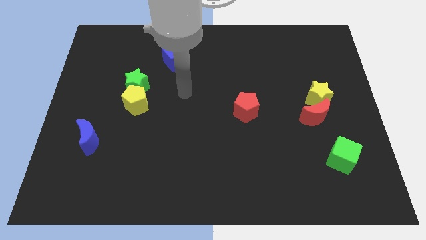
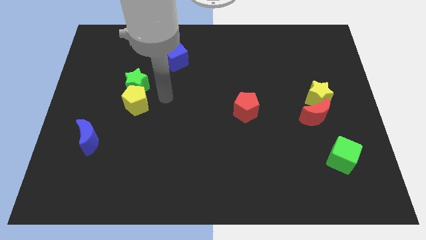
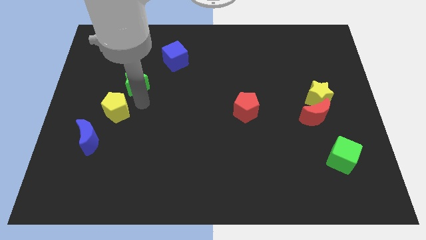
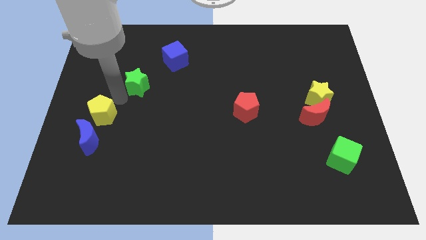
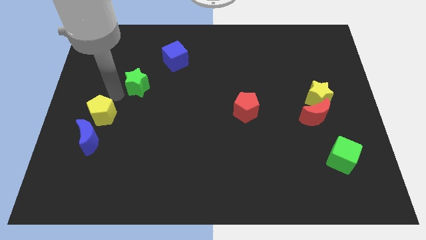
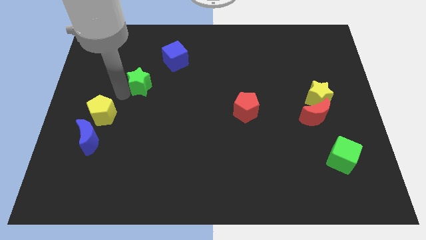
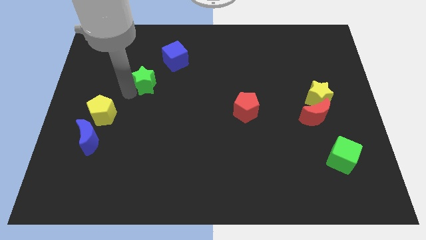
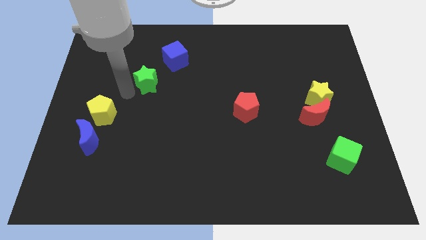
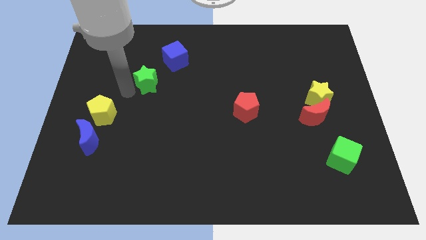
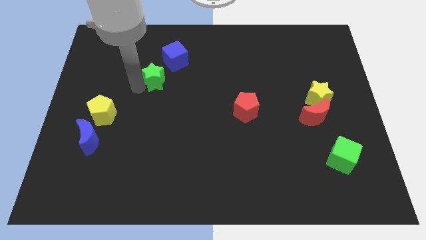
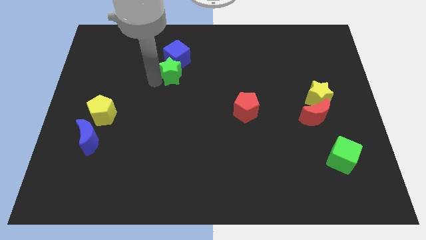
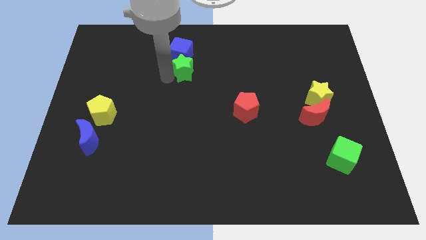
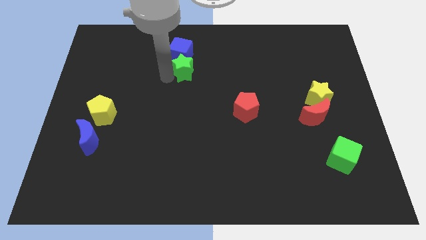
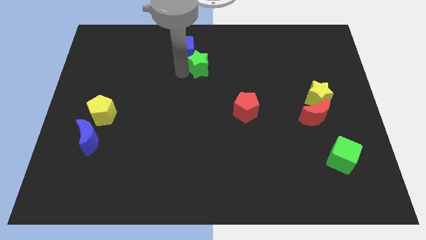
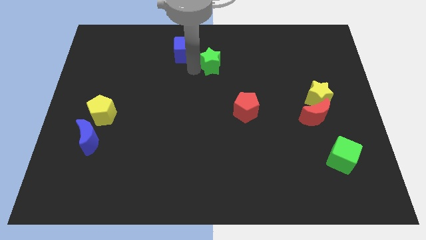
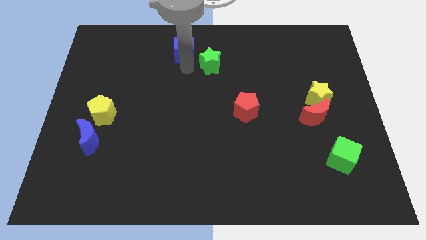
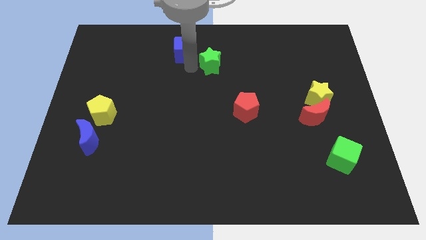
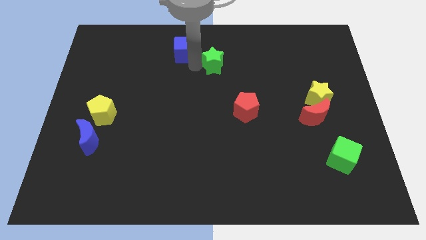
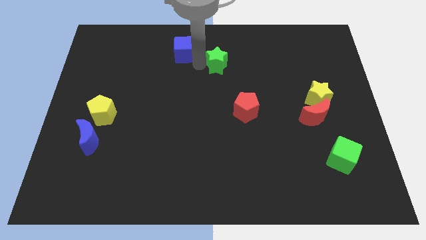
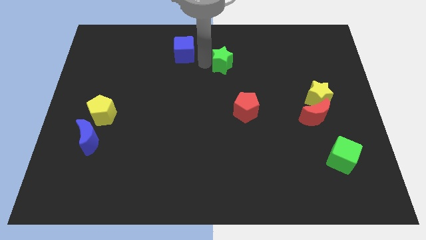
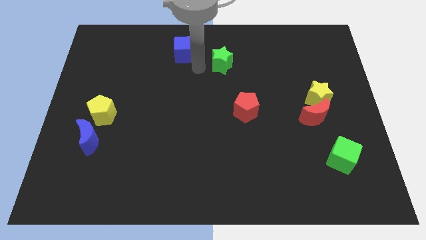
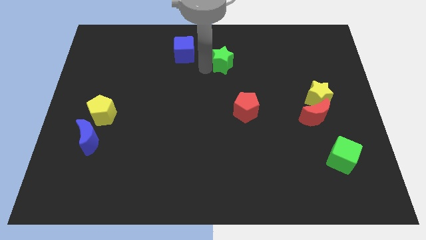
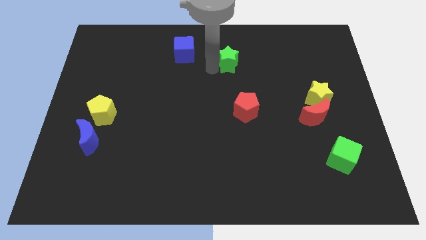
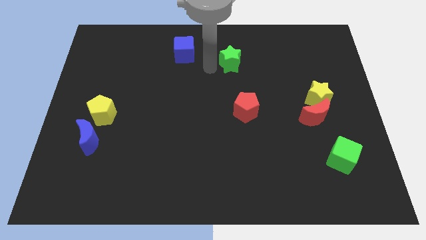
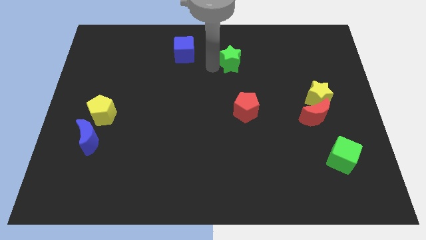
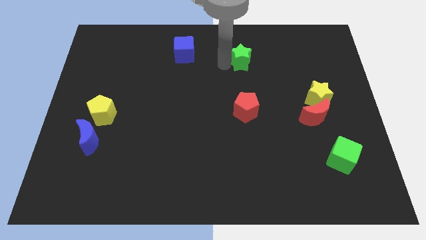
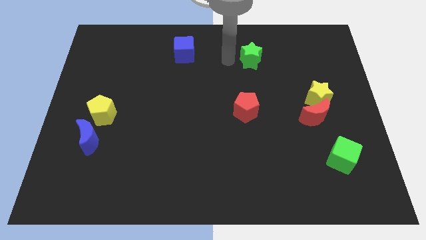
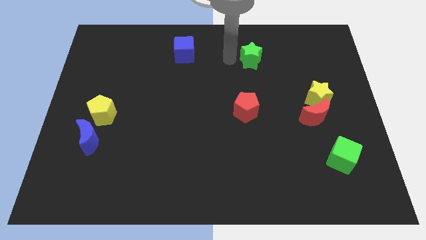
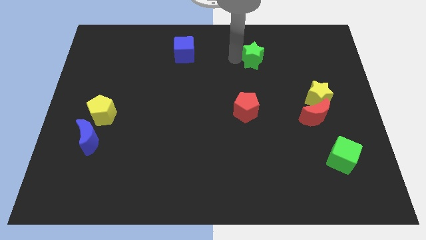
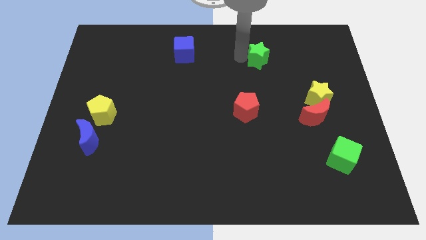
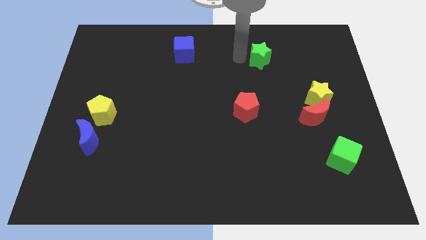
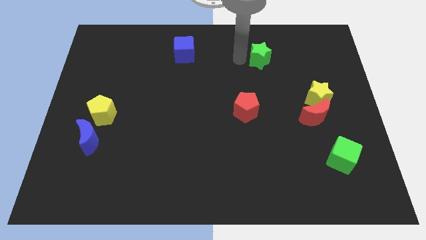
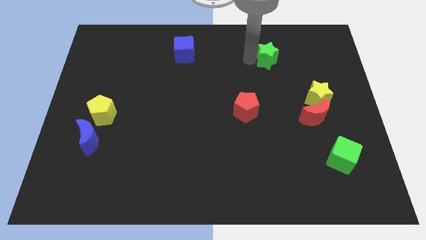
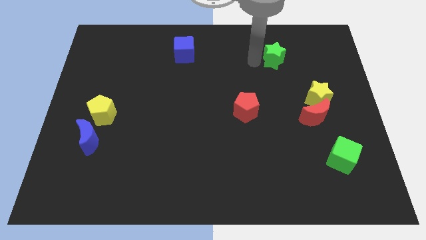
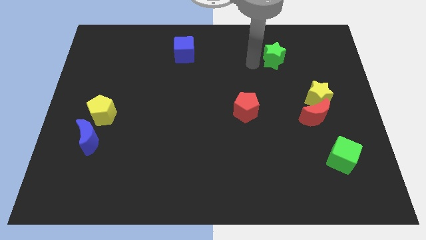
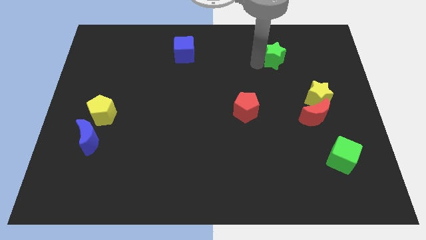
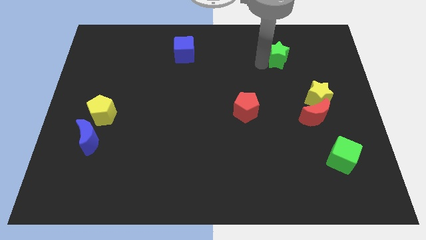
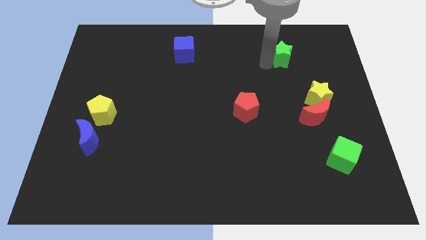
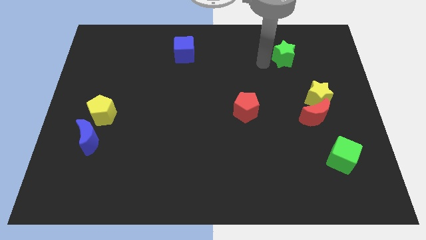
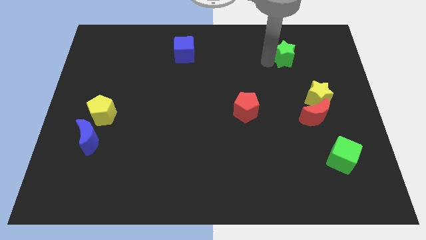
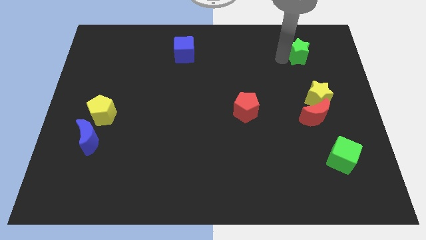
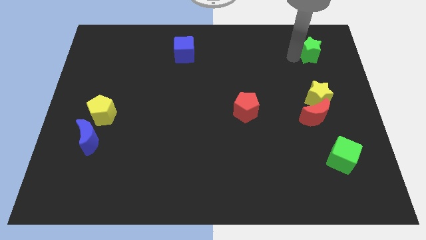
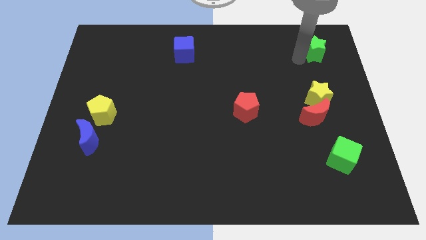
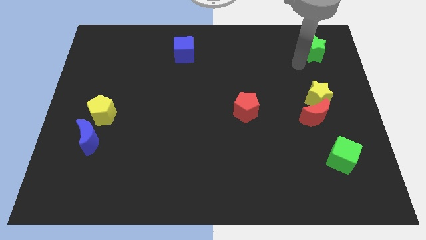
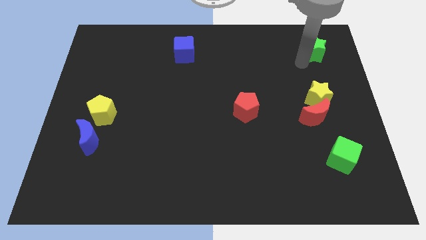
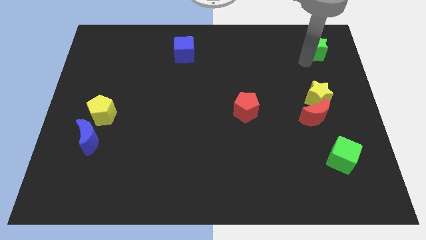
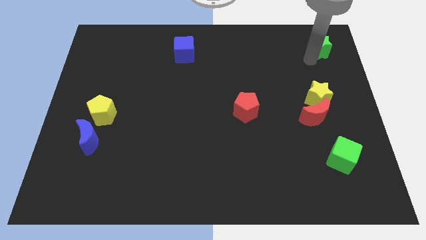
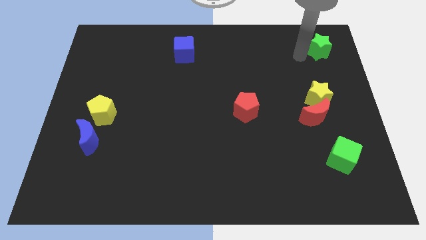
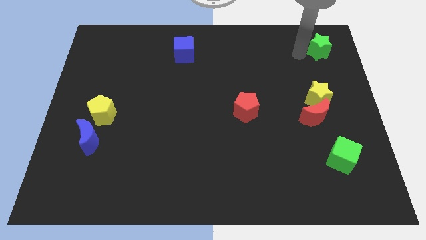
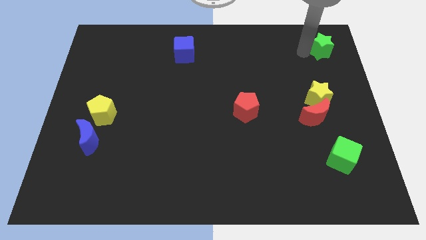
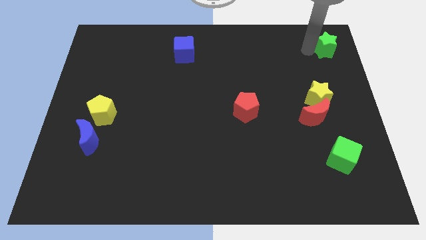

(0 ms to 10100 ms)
slide the green star to the top right corner

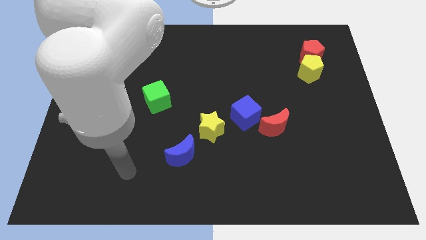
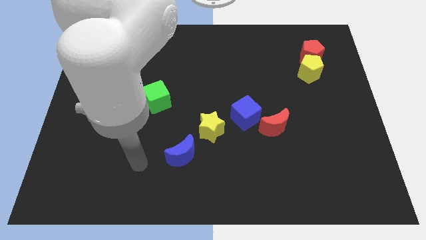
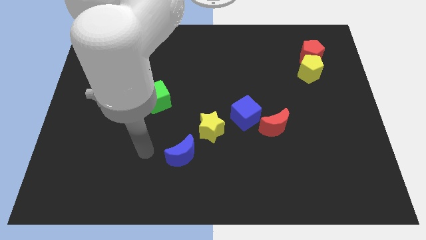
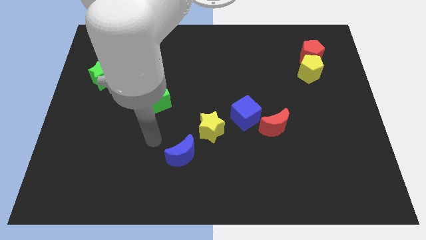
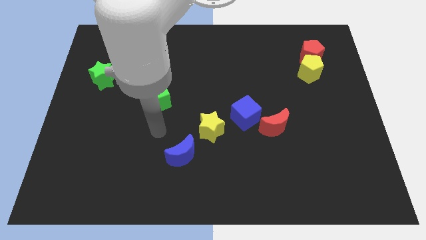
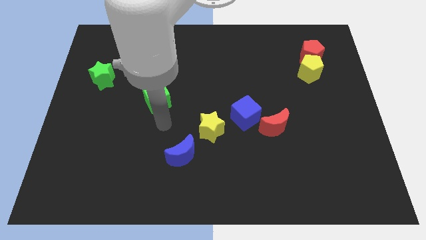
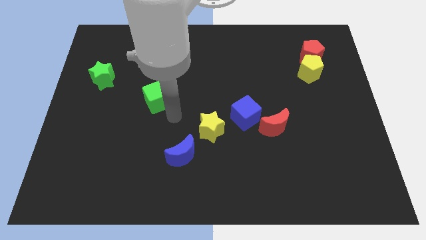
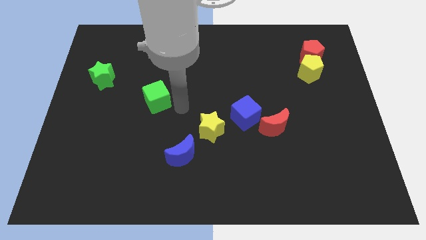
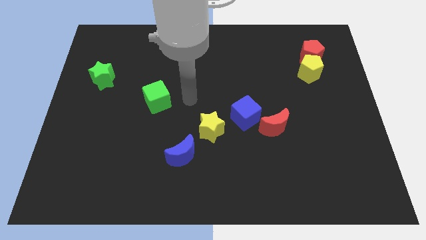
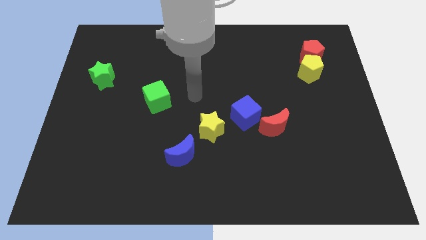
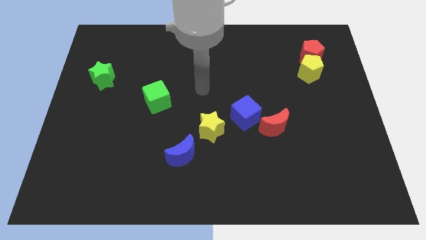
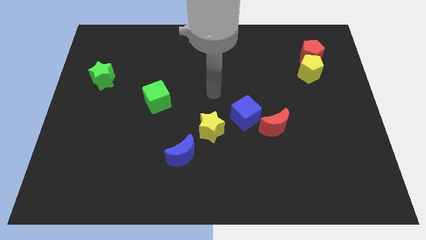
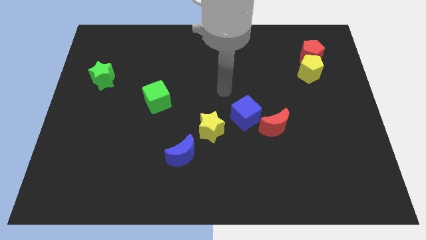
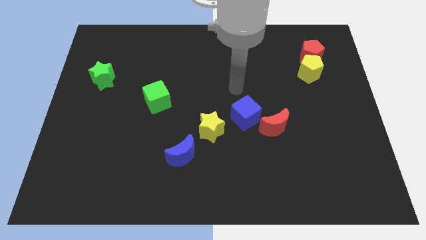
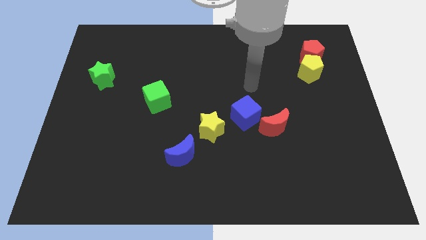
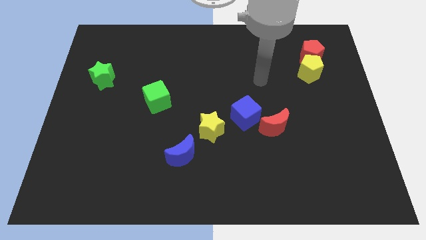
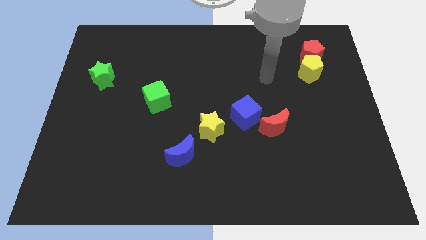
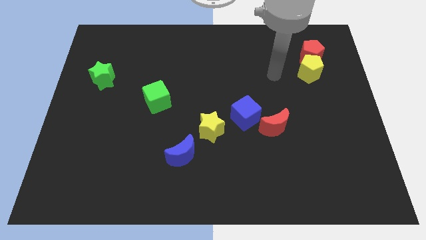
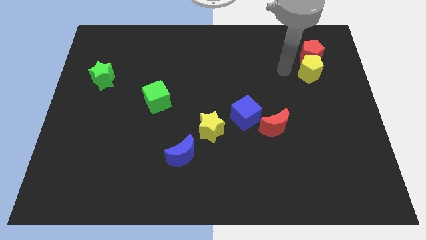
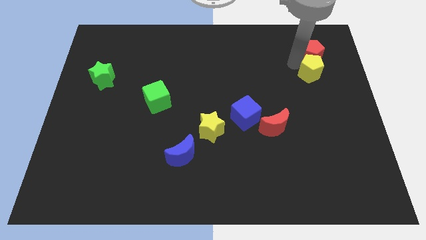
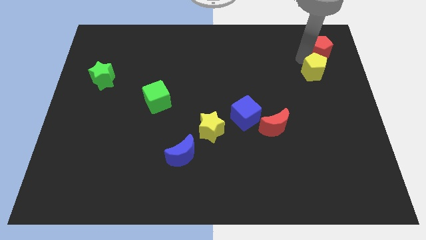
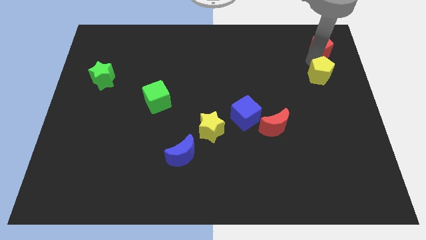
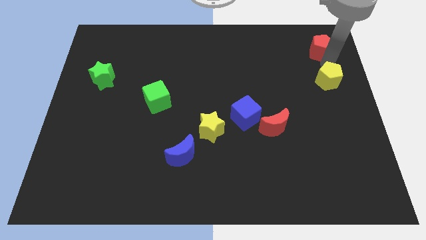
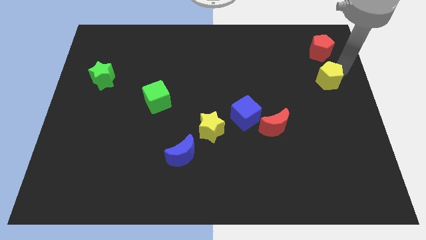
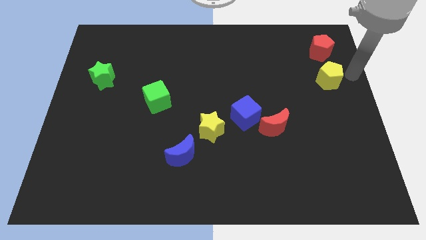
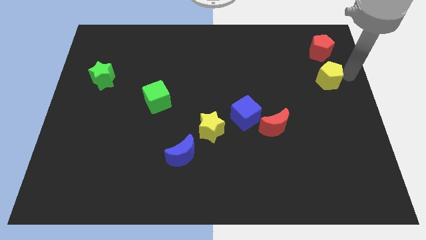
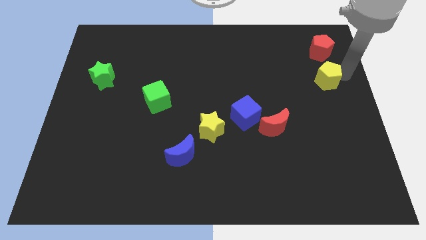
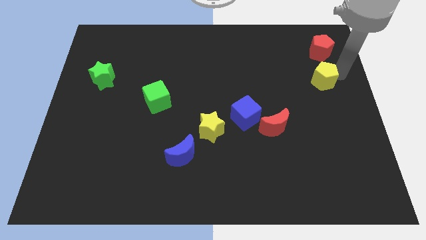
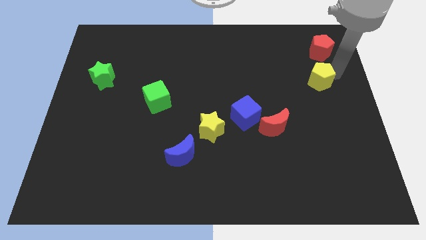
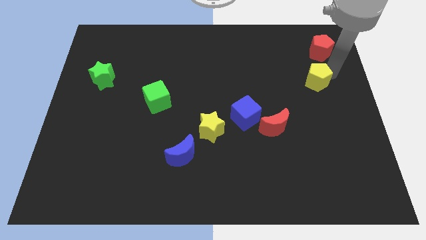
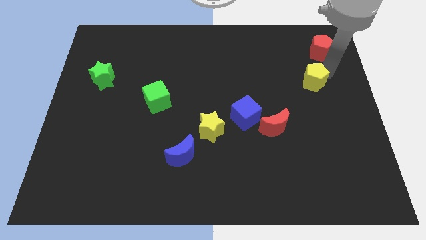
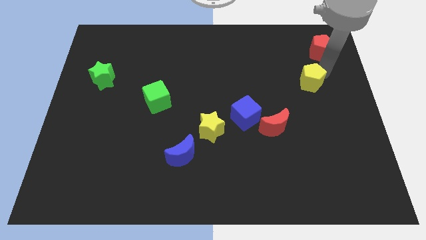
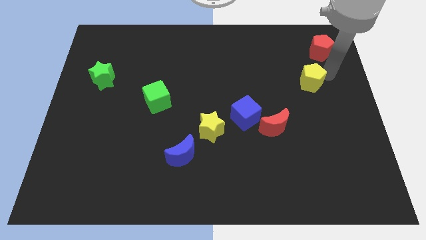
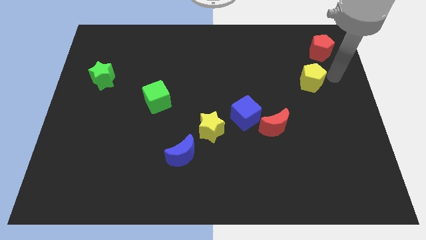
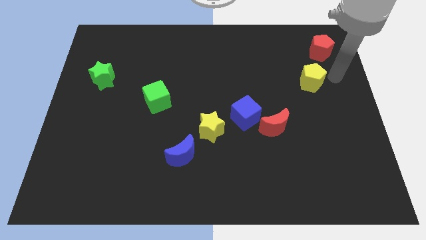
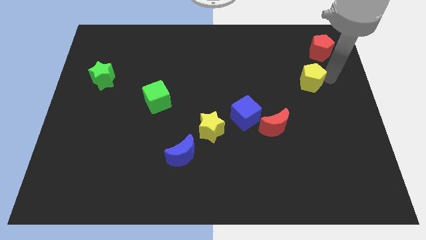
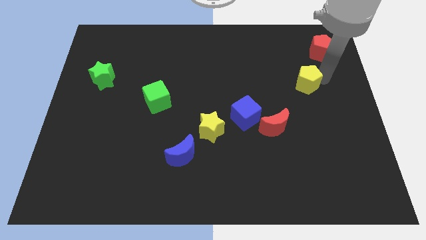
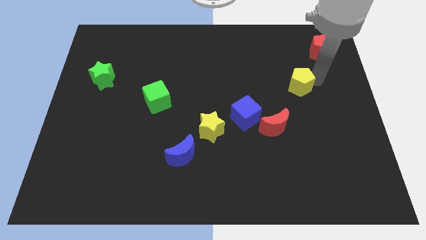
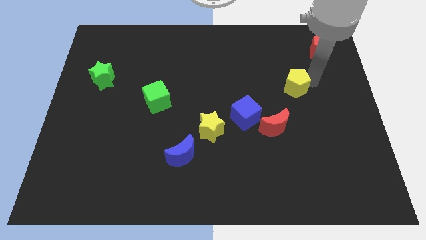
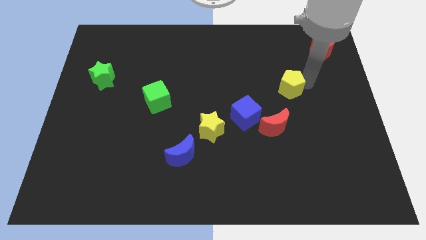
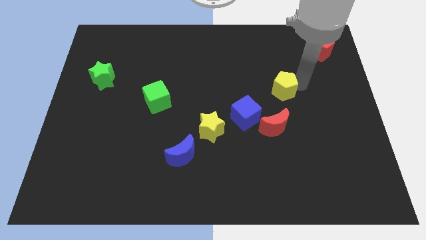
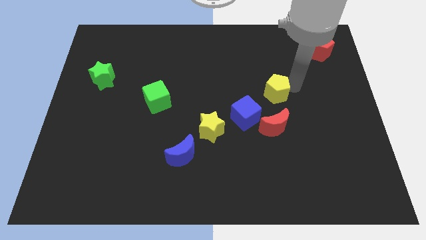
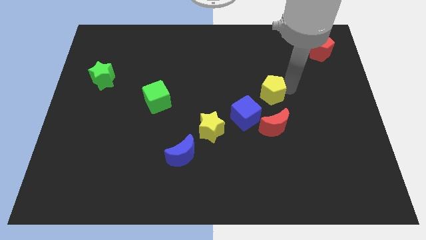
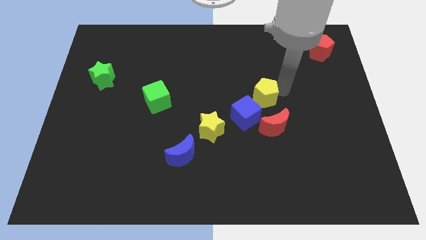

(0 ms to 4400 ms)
push the yellow pentagon to the center of the board
